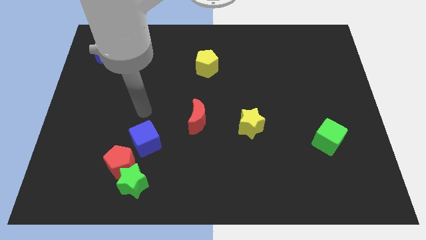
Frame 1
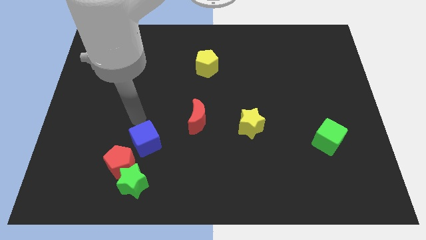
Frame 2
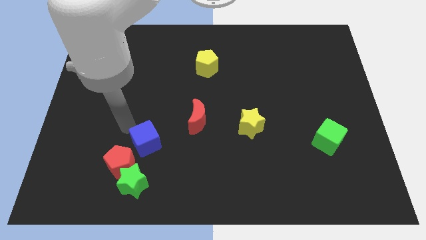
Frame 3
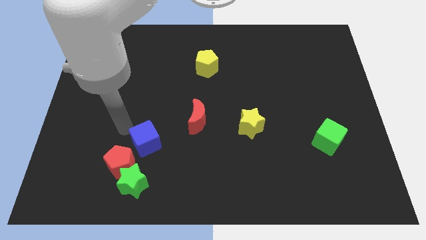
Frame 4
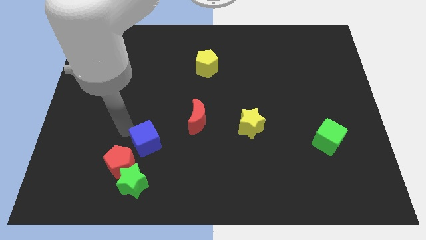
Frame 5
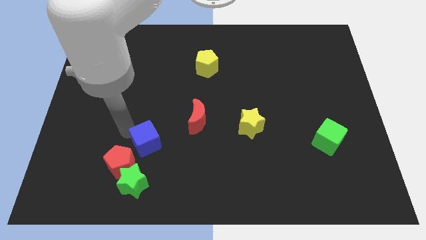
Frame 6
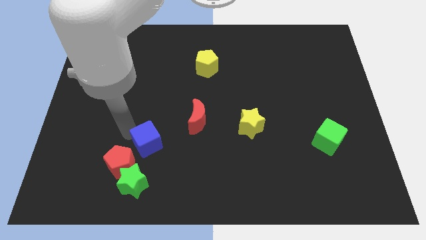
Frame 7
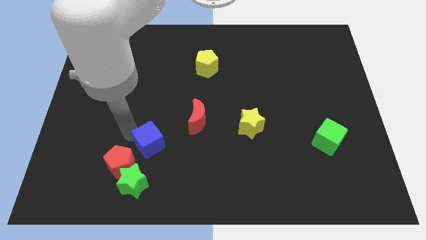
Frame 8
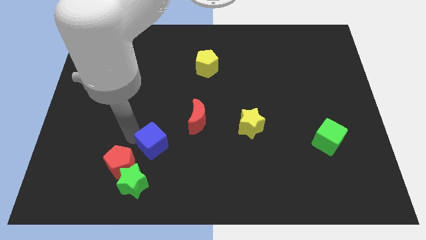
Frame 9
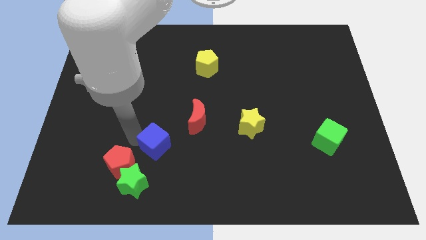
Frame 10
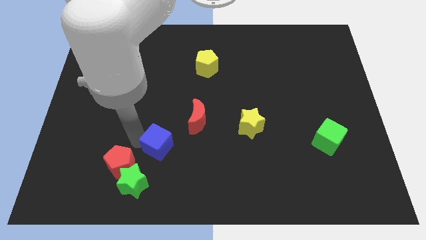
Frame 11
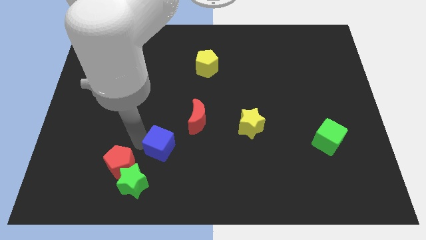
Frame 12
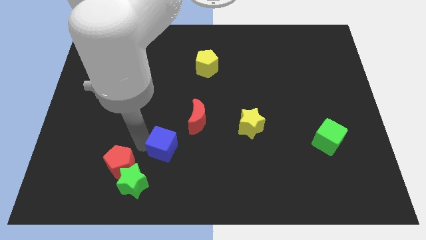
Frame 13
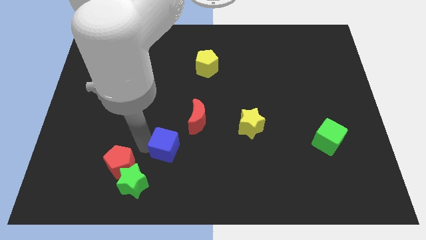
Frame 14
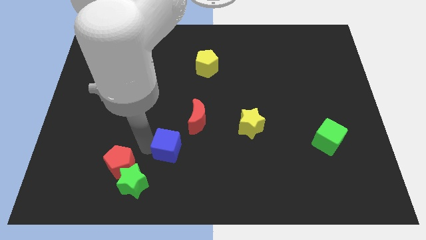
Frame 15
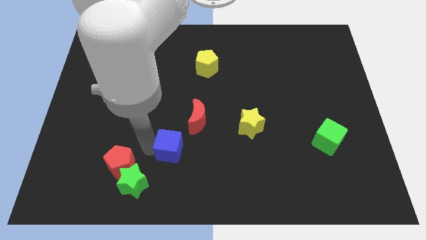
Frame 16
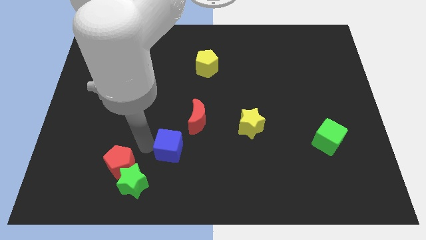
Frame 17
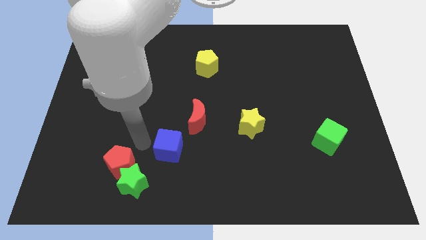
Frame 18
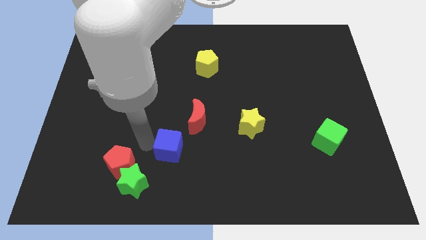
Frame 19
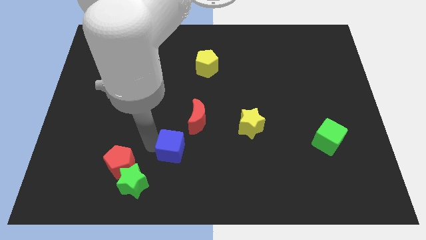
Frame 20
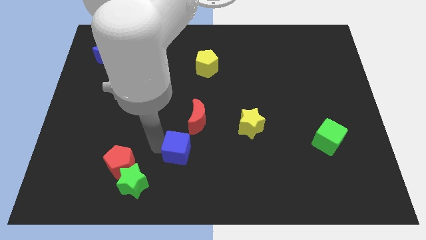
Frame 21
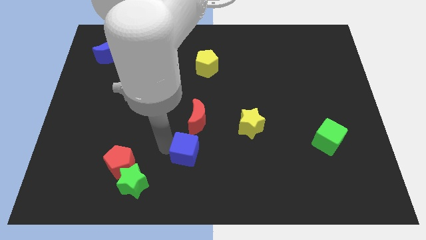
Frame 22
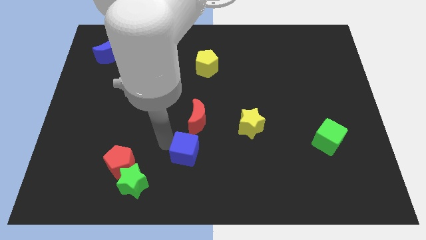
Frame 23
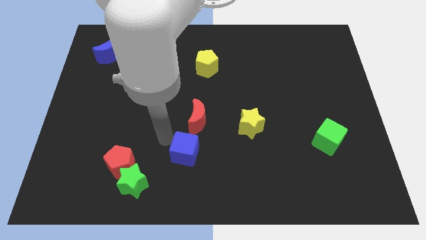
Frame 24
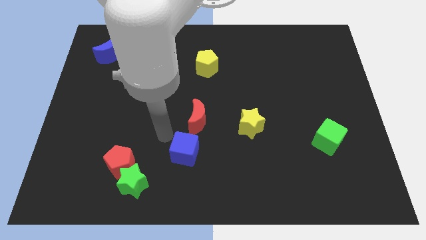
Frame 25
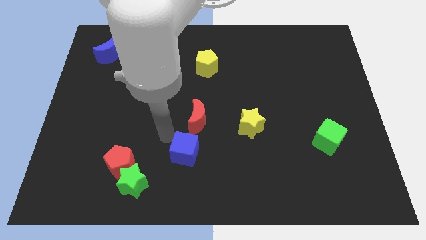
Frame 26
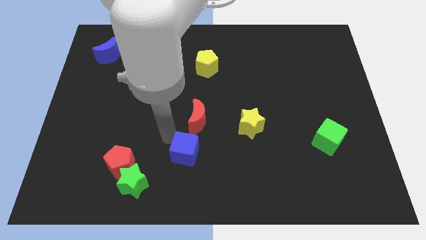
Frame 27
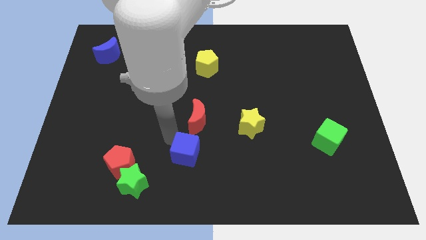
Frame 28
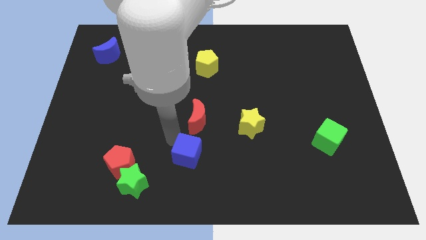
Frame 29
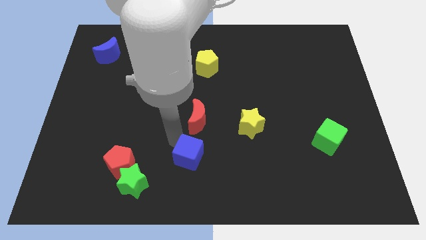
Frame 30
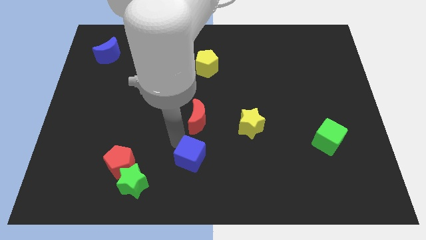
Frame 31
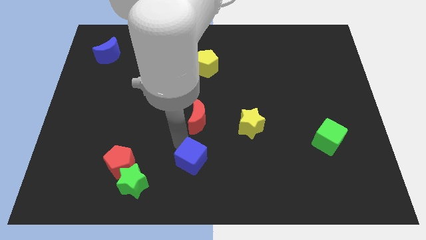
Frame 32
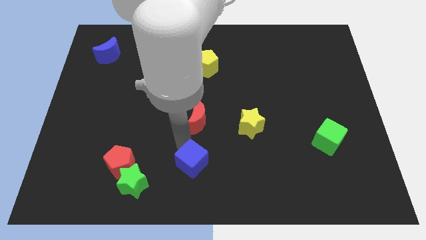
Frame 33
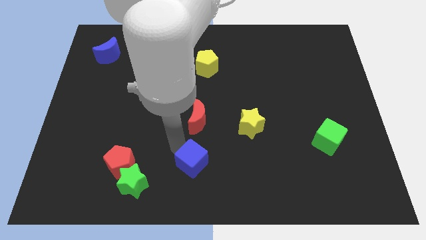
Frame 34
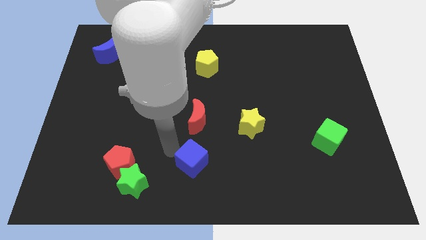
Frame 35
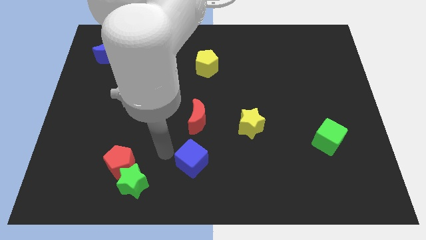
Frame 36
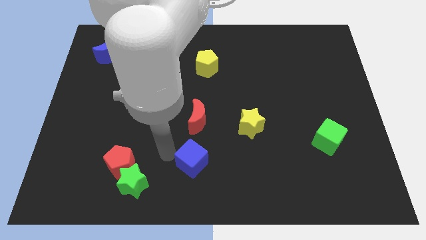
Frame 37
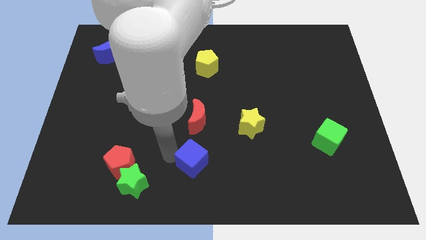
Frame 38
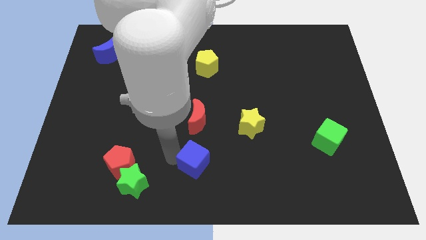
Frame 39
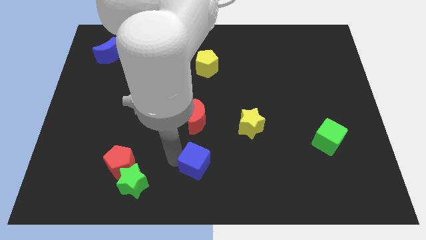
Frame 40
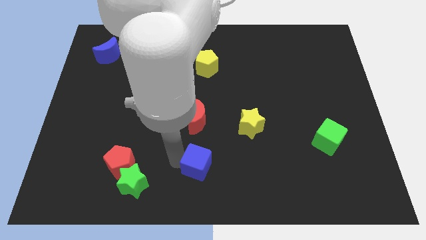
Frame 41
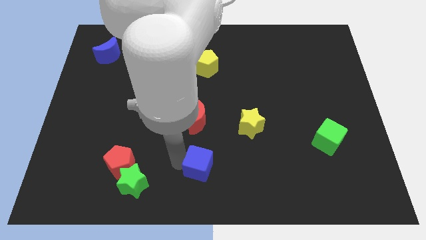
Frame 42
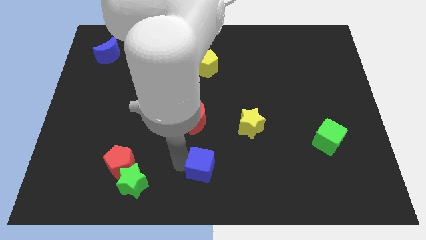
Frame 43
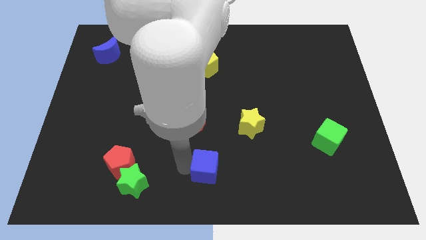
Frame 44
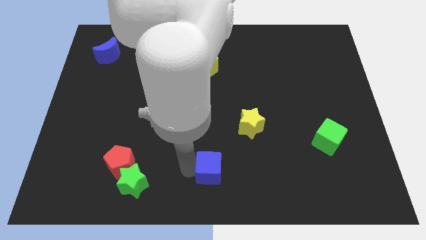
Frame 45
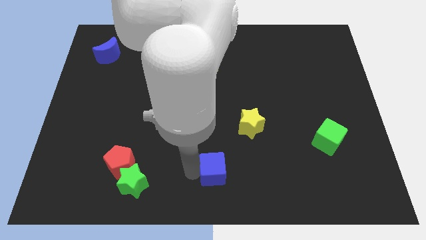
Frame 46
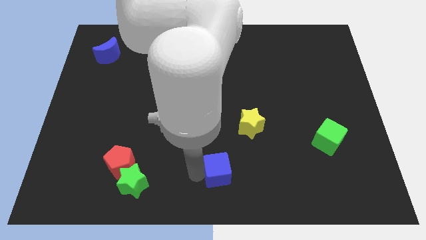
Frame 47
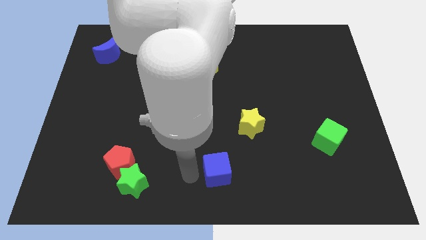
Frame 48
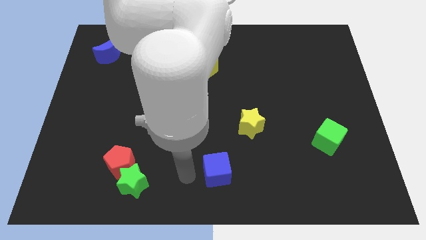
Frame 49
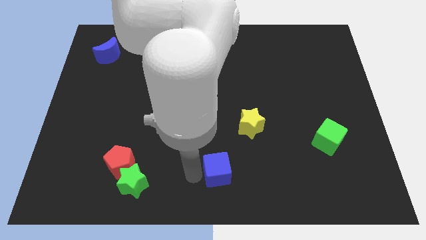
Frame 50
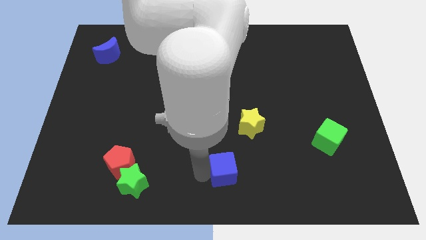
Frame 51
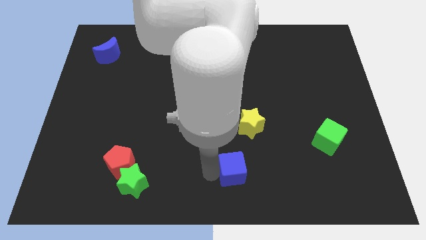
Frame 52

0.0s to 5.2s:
push the blue cube to the bottom side of the yellow star

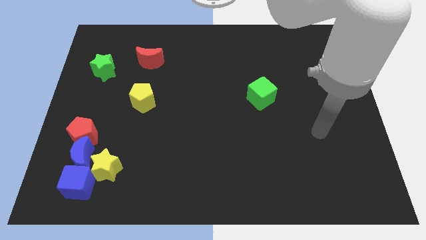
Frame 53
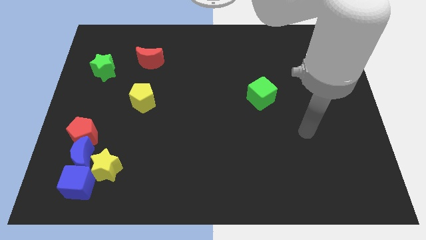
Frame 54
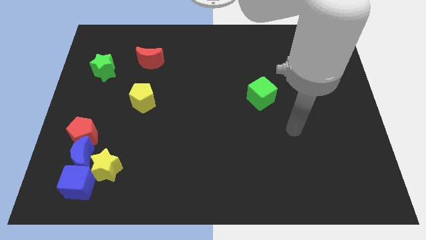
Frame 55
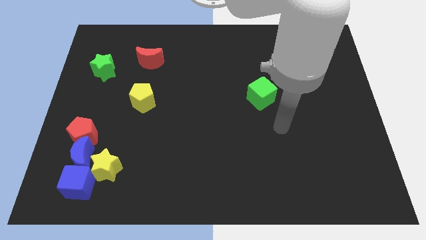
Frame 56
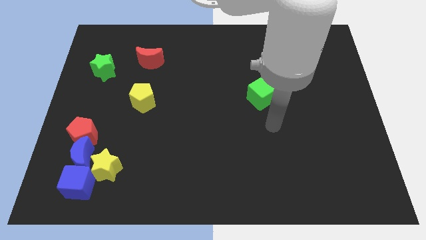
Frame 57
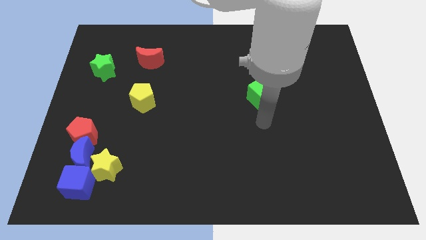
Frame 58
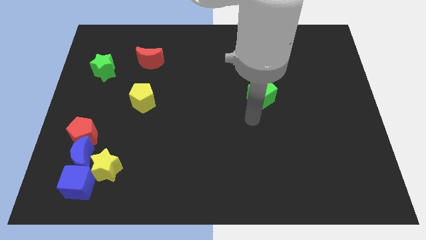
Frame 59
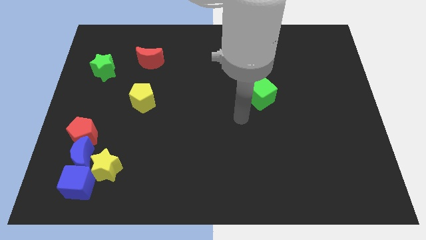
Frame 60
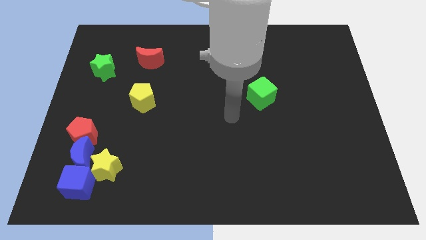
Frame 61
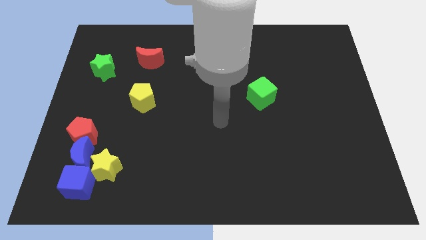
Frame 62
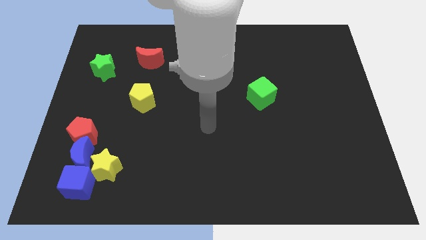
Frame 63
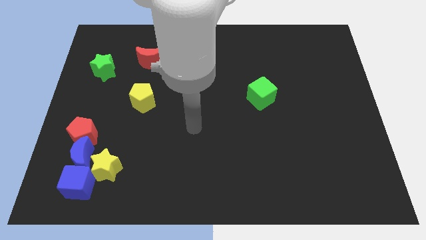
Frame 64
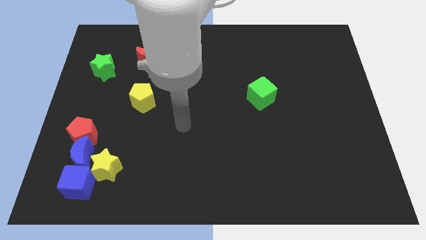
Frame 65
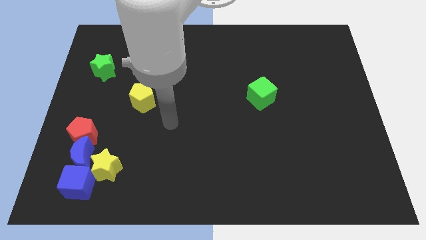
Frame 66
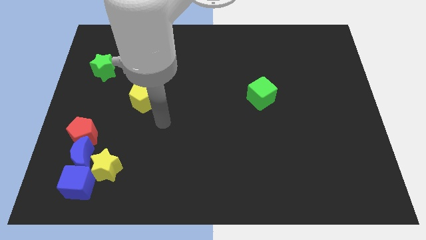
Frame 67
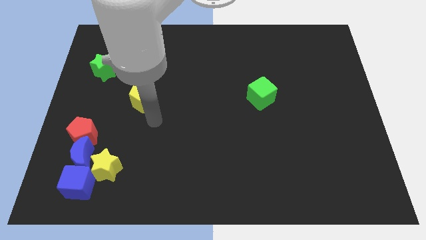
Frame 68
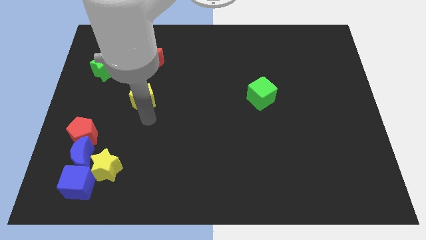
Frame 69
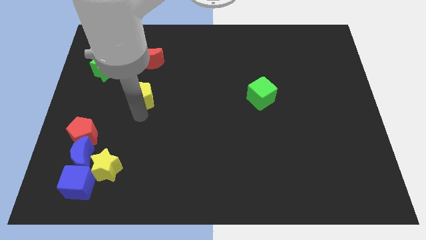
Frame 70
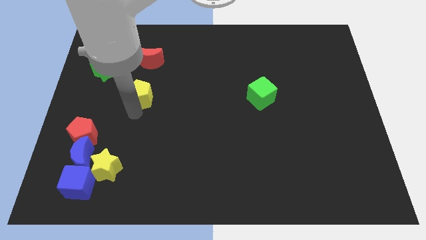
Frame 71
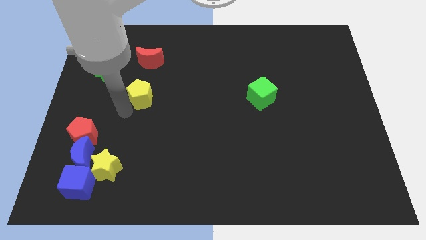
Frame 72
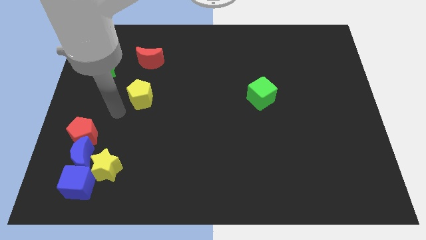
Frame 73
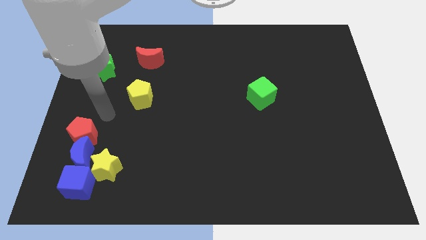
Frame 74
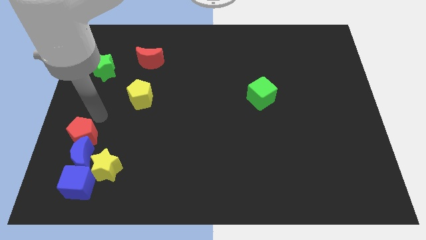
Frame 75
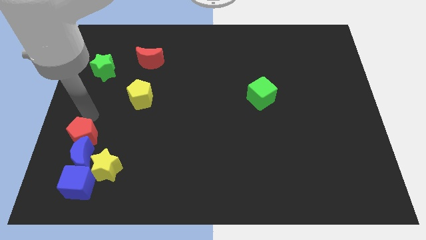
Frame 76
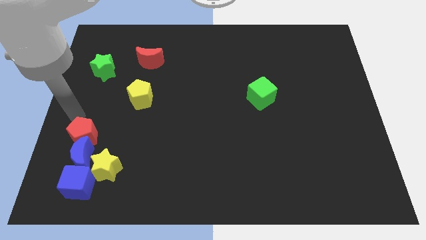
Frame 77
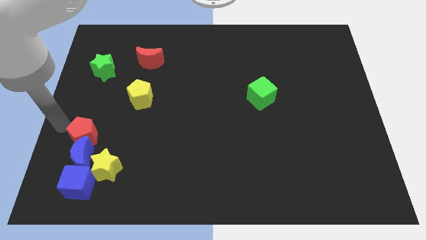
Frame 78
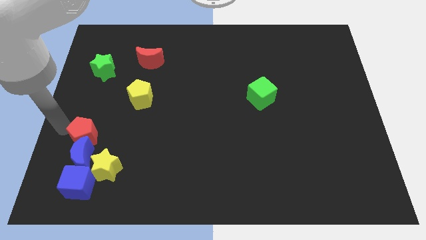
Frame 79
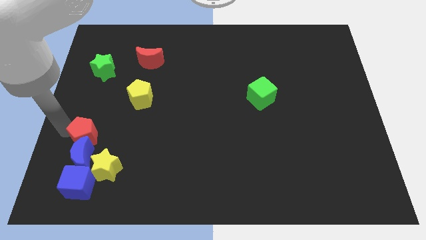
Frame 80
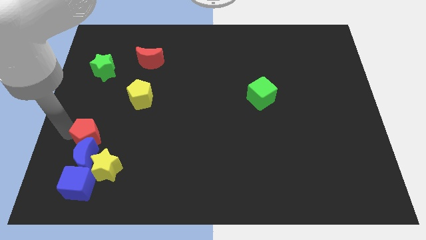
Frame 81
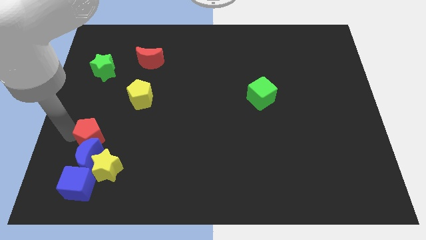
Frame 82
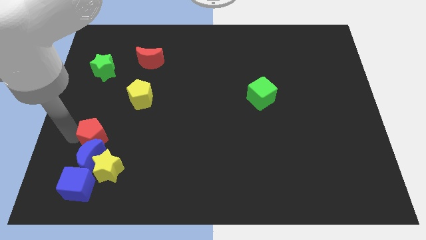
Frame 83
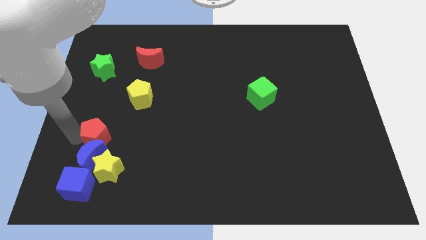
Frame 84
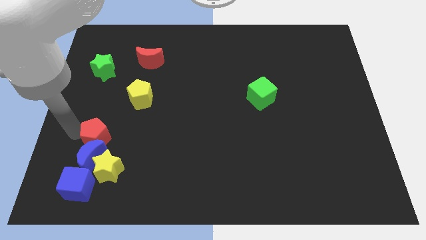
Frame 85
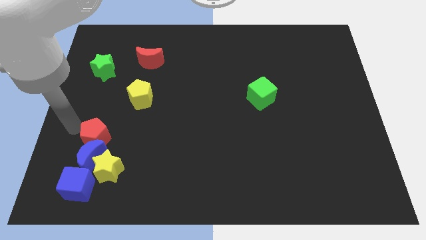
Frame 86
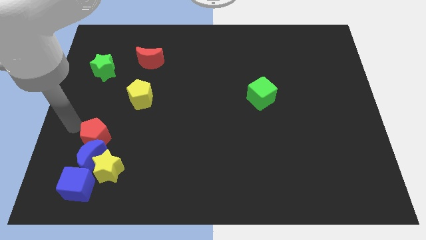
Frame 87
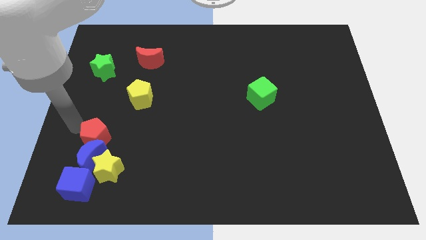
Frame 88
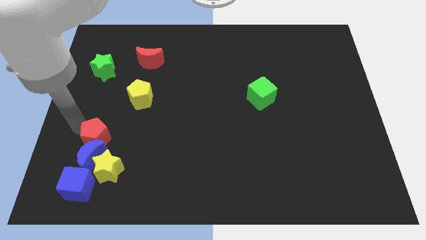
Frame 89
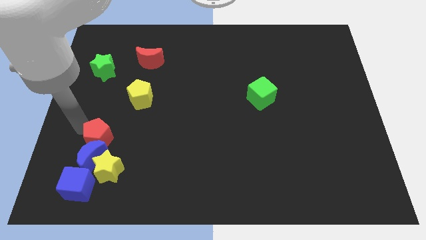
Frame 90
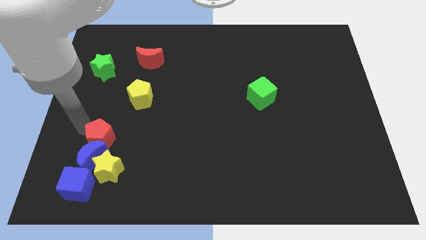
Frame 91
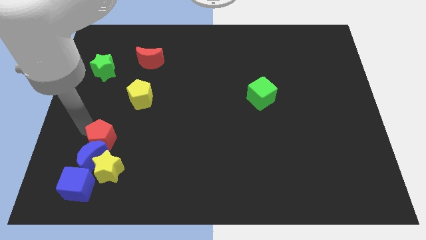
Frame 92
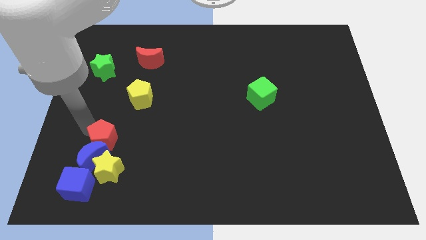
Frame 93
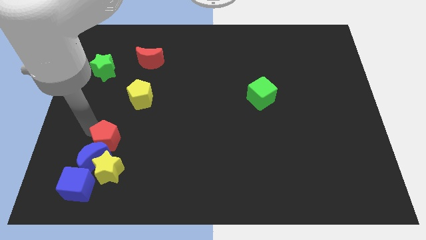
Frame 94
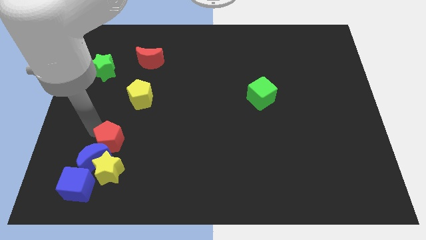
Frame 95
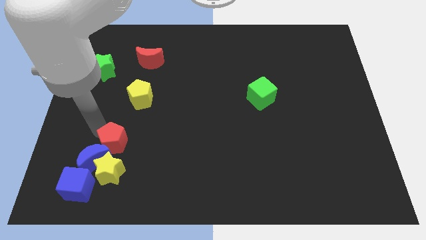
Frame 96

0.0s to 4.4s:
put the red pentagon to the right side of the blue moon
